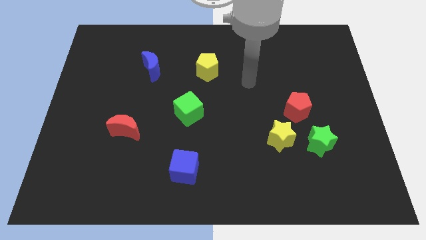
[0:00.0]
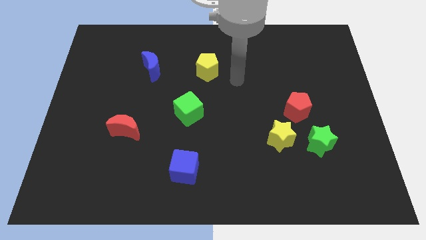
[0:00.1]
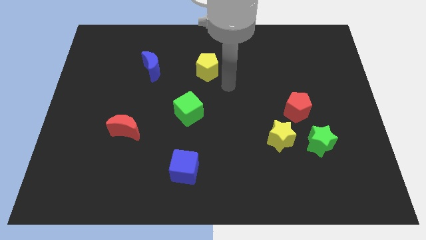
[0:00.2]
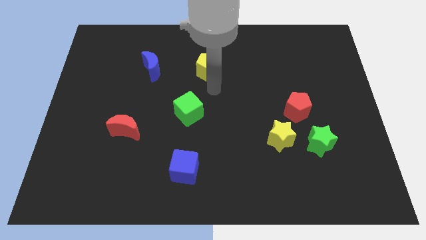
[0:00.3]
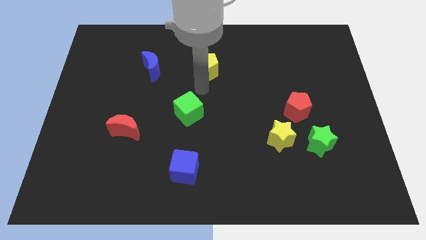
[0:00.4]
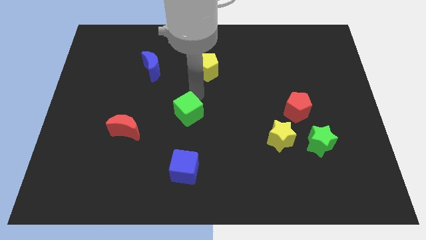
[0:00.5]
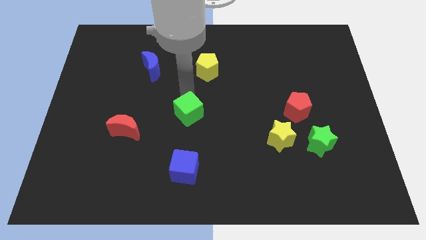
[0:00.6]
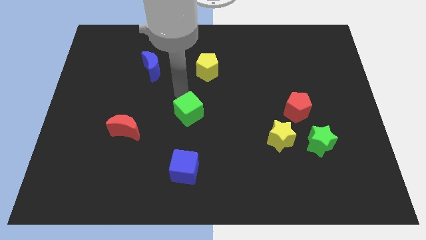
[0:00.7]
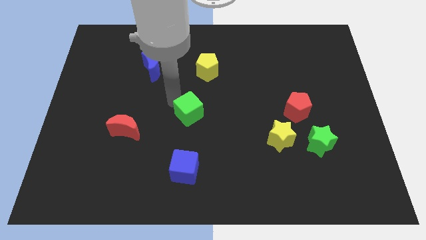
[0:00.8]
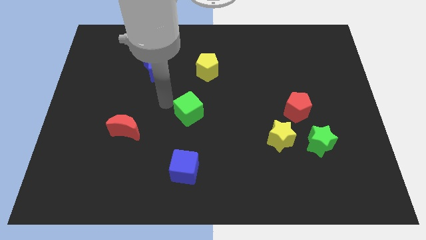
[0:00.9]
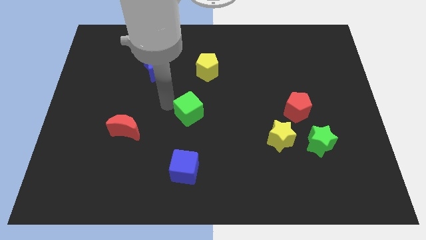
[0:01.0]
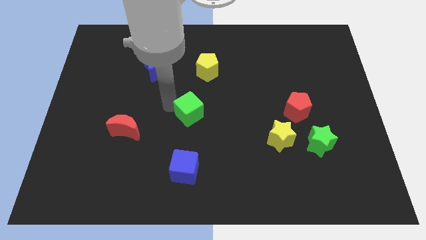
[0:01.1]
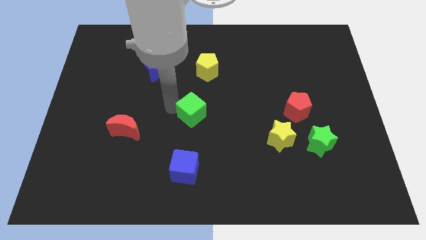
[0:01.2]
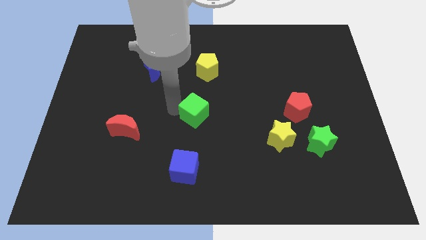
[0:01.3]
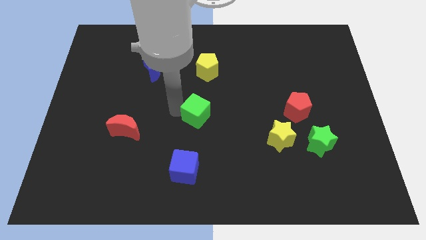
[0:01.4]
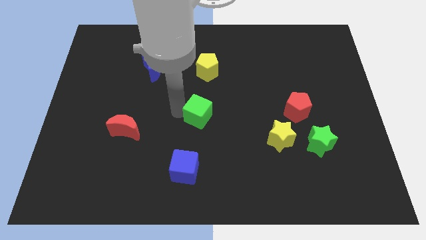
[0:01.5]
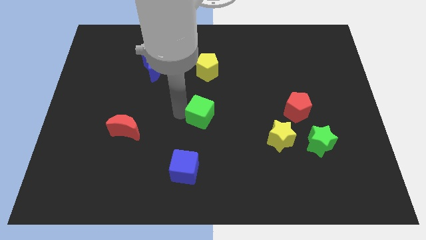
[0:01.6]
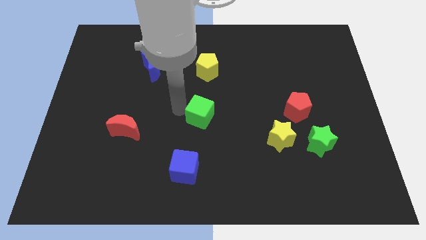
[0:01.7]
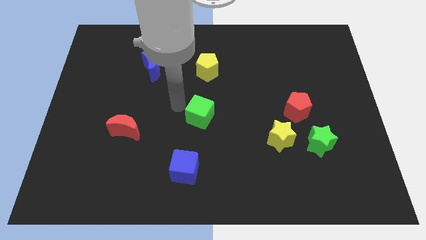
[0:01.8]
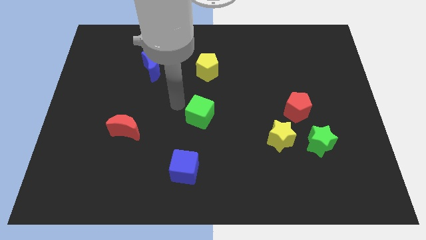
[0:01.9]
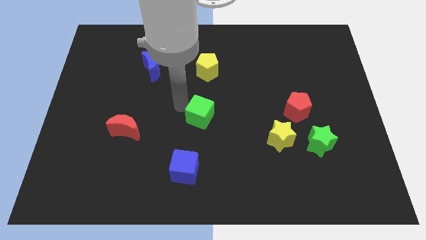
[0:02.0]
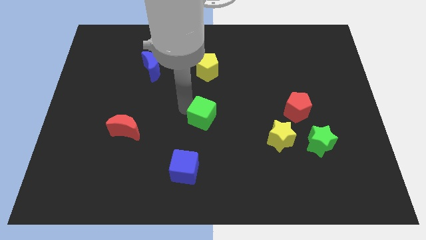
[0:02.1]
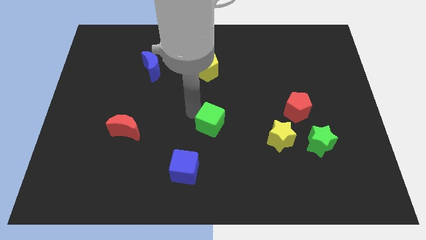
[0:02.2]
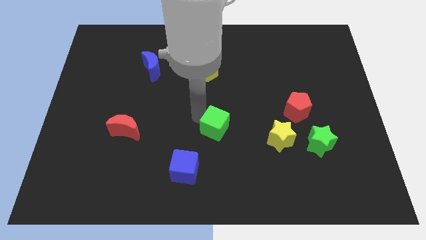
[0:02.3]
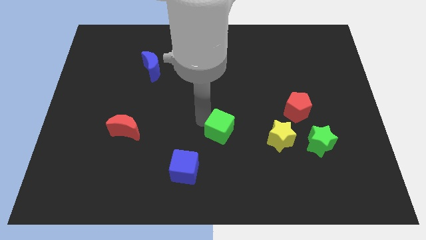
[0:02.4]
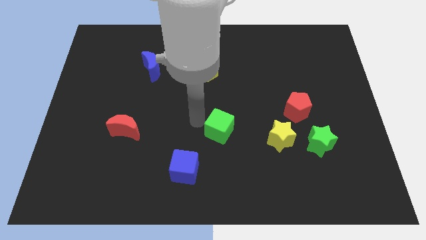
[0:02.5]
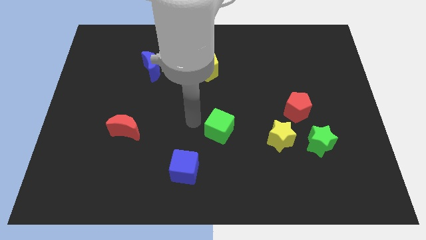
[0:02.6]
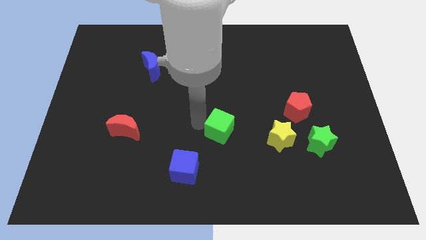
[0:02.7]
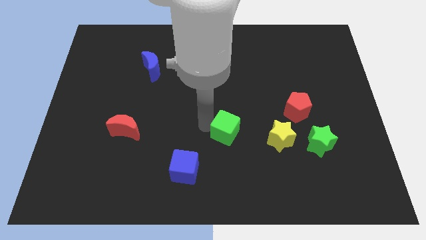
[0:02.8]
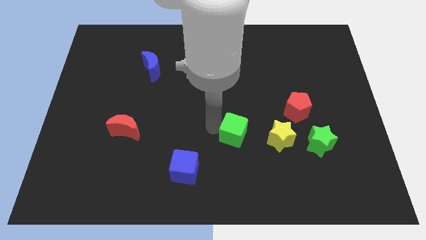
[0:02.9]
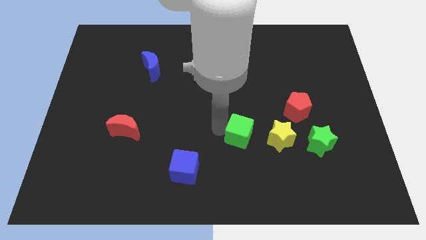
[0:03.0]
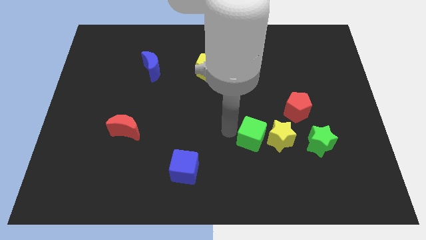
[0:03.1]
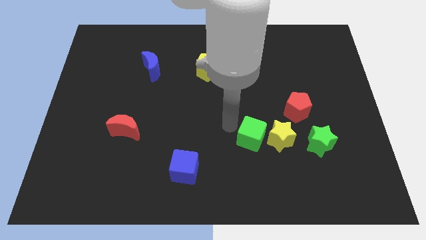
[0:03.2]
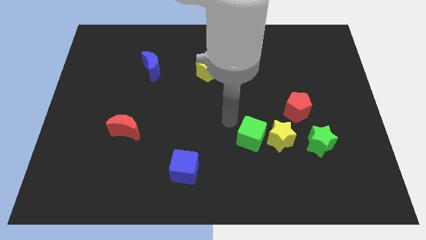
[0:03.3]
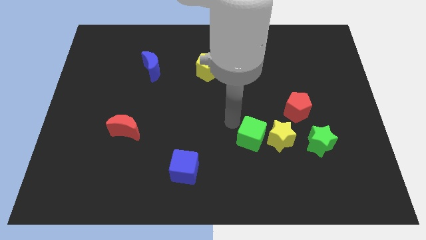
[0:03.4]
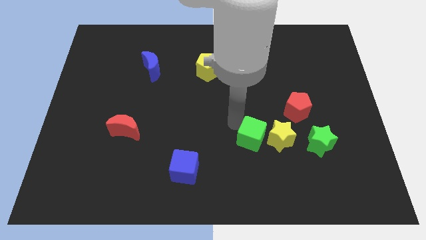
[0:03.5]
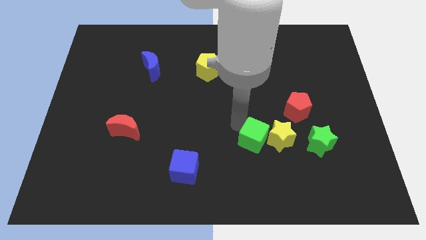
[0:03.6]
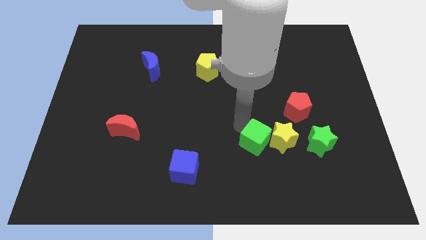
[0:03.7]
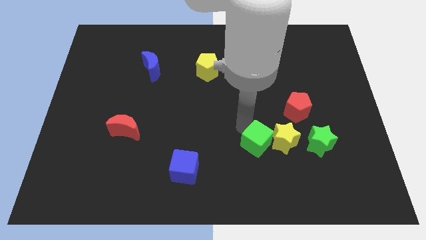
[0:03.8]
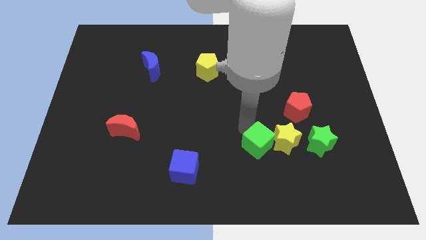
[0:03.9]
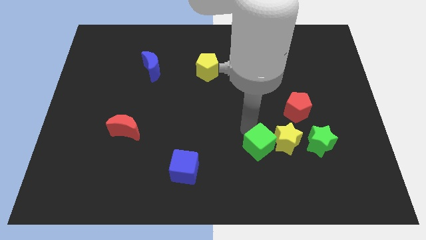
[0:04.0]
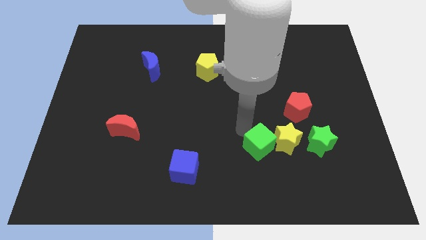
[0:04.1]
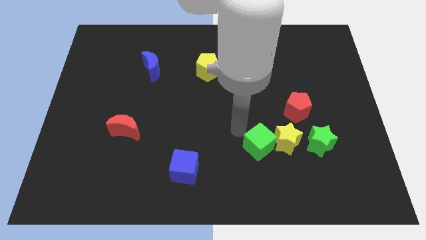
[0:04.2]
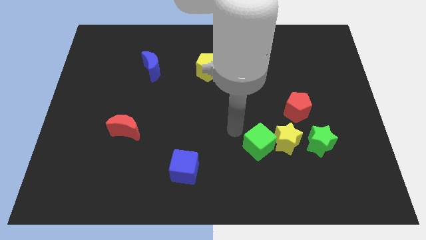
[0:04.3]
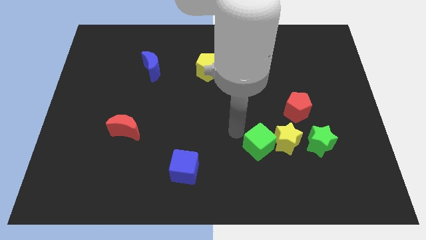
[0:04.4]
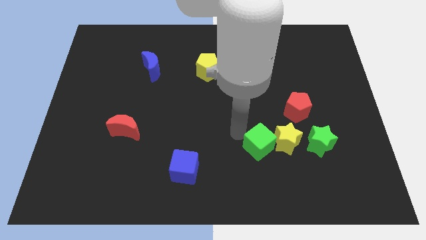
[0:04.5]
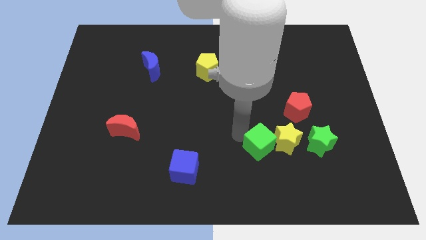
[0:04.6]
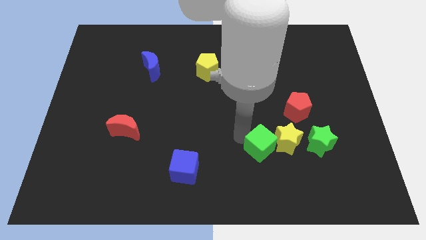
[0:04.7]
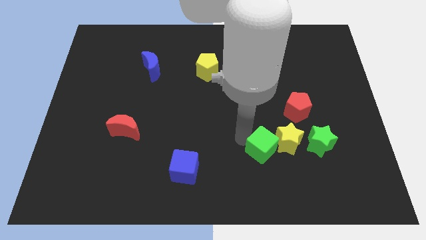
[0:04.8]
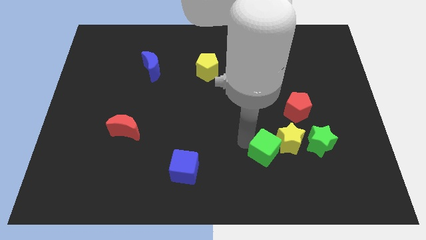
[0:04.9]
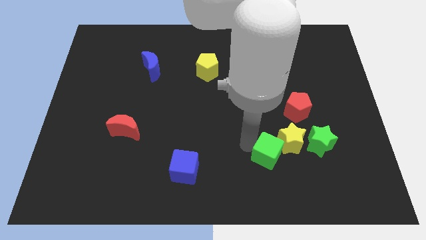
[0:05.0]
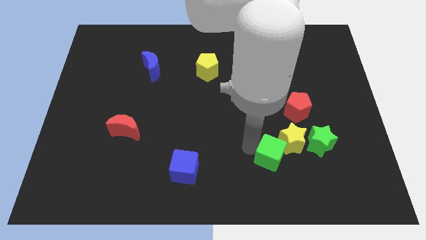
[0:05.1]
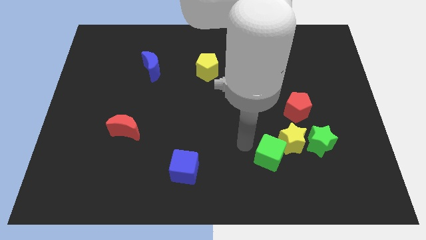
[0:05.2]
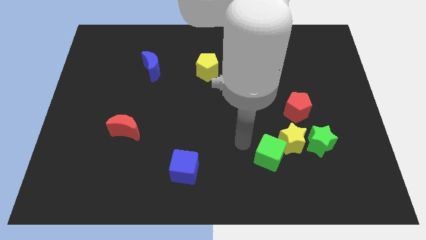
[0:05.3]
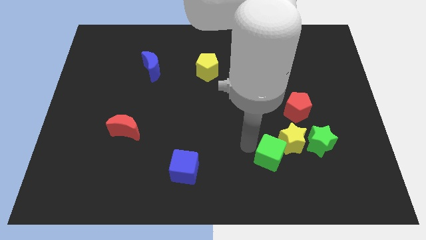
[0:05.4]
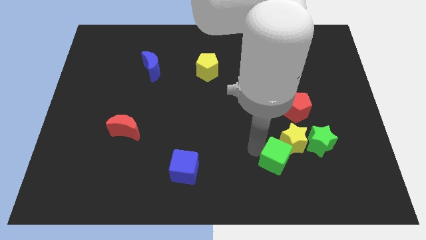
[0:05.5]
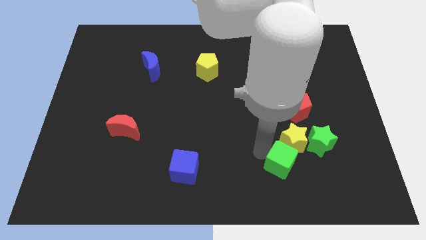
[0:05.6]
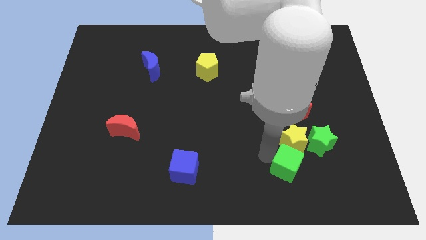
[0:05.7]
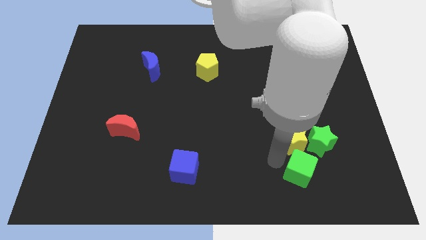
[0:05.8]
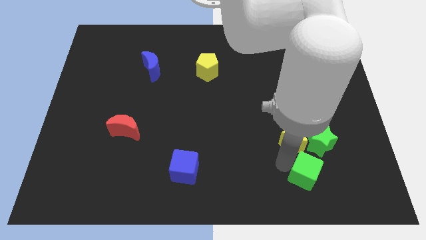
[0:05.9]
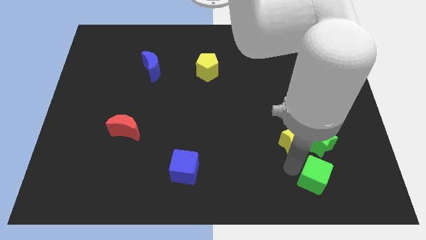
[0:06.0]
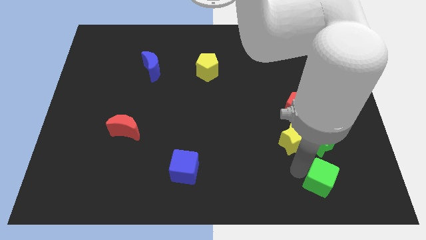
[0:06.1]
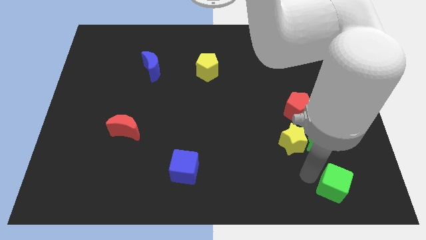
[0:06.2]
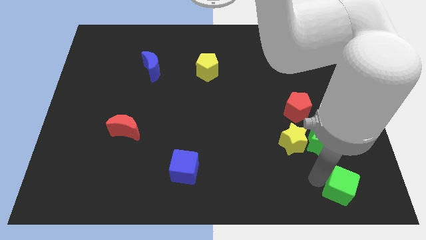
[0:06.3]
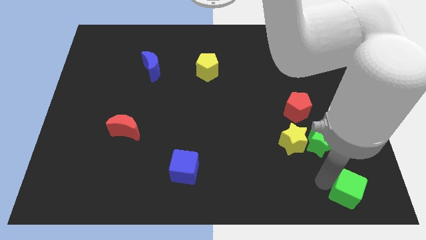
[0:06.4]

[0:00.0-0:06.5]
push the green cube to the bottom right corner
